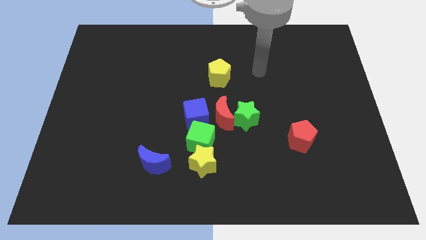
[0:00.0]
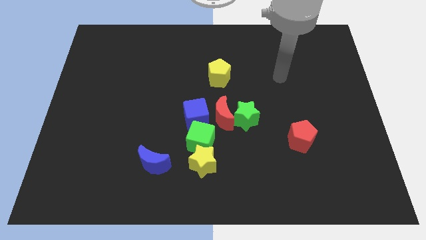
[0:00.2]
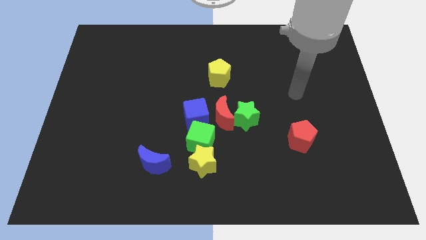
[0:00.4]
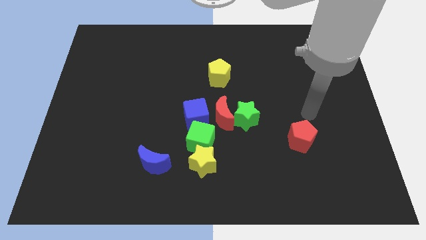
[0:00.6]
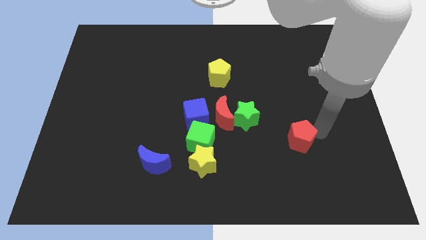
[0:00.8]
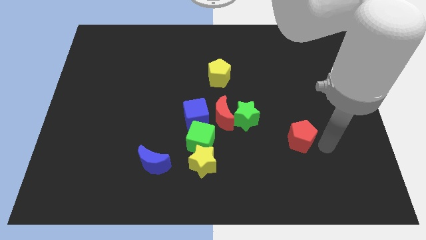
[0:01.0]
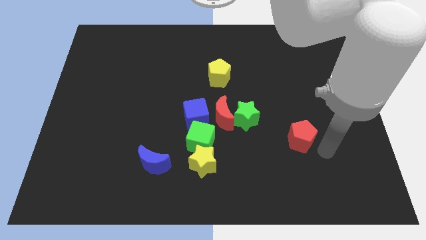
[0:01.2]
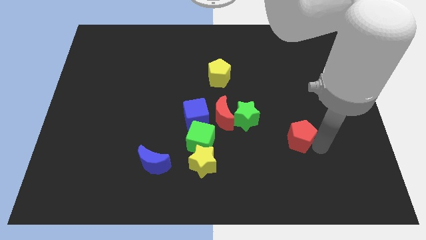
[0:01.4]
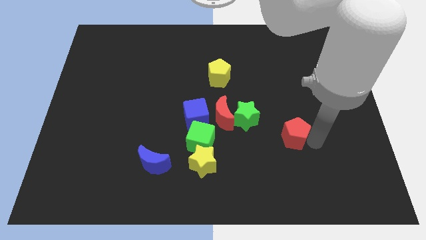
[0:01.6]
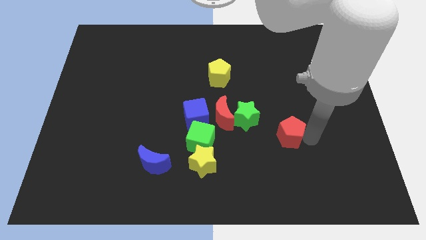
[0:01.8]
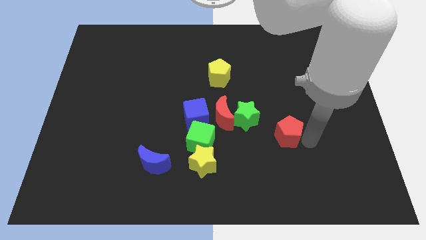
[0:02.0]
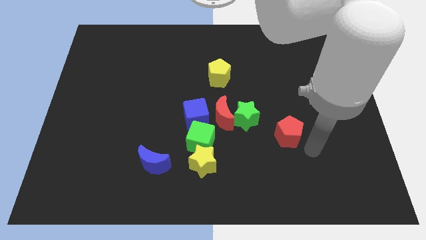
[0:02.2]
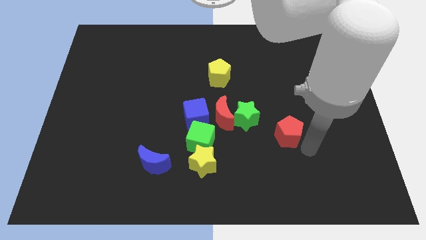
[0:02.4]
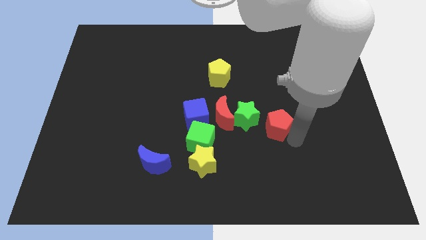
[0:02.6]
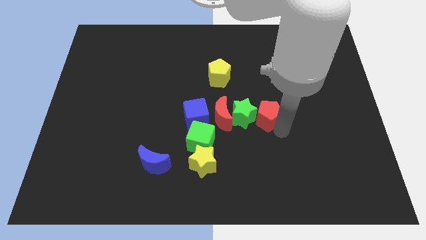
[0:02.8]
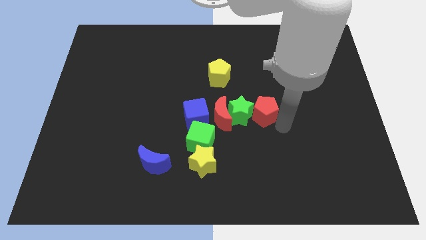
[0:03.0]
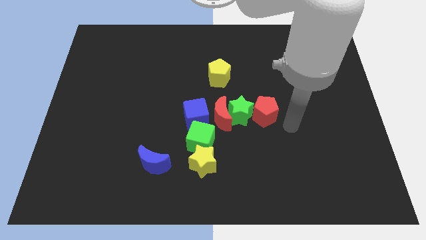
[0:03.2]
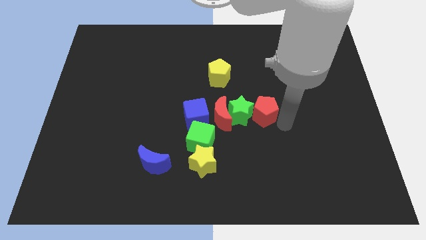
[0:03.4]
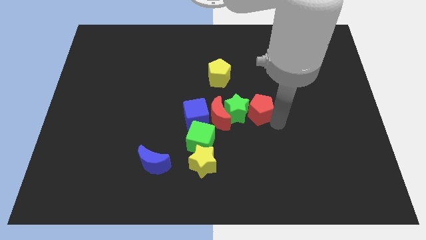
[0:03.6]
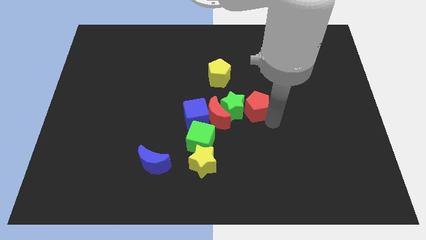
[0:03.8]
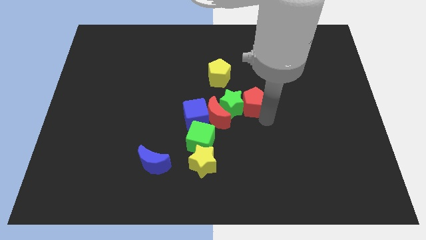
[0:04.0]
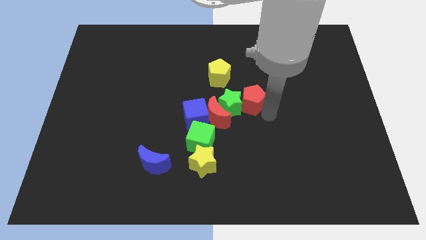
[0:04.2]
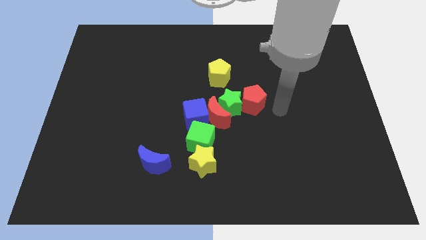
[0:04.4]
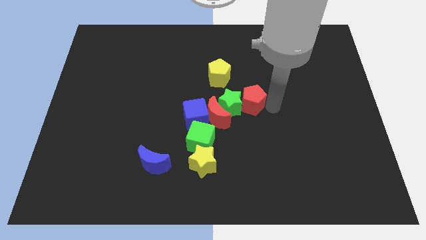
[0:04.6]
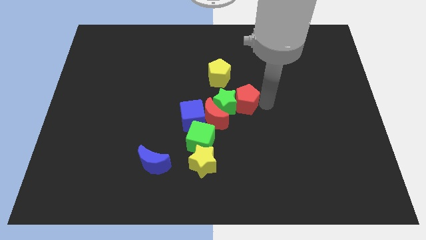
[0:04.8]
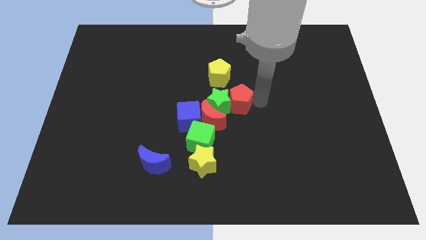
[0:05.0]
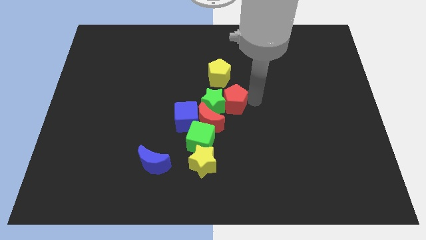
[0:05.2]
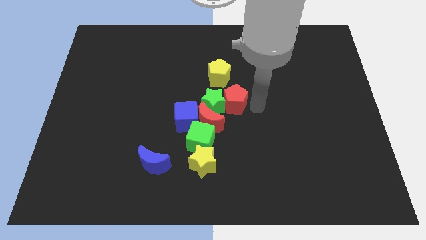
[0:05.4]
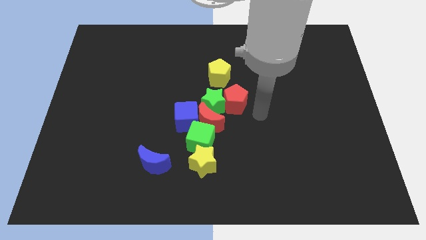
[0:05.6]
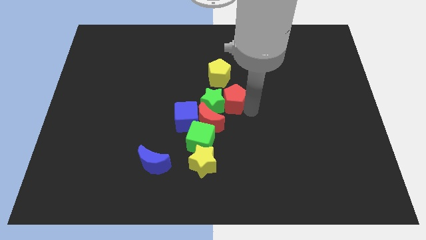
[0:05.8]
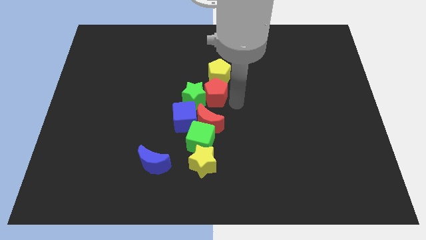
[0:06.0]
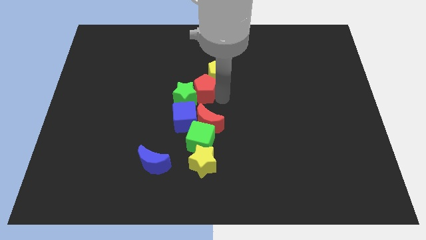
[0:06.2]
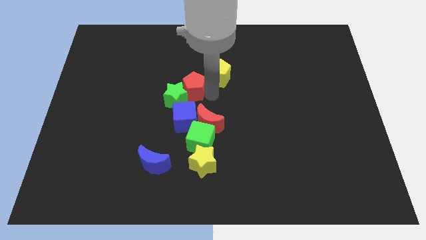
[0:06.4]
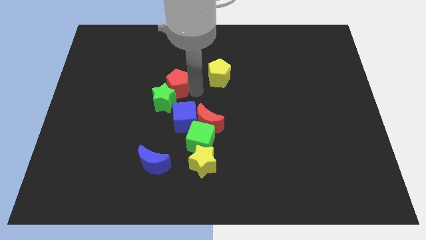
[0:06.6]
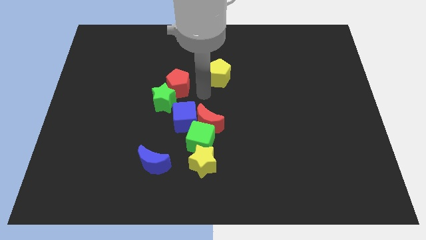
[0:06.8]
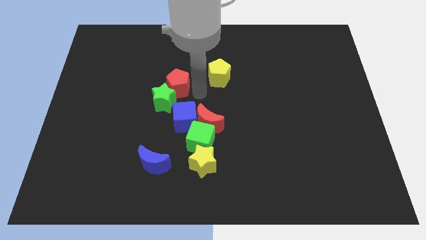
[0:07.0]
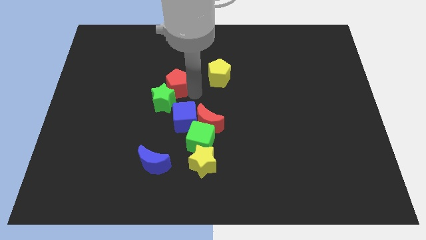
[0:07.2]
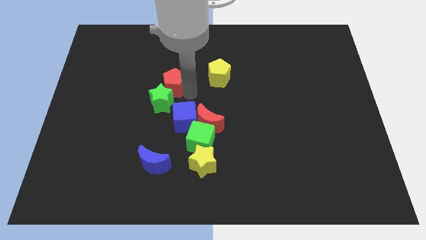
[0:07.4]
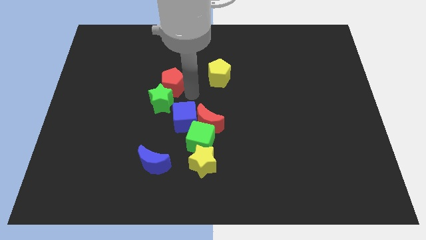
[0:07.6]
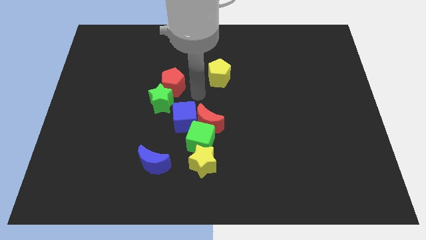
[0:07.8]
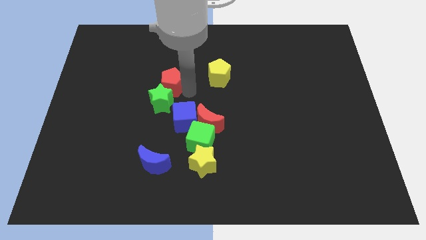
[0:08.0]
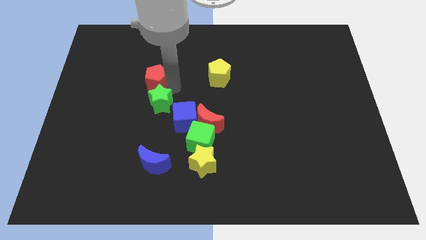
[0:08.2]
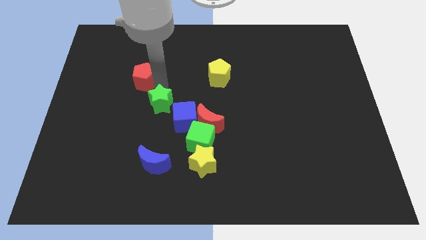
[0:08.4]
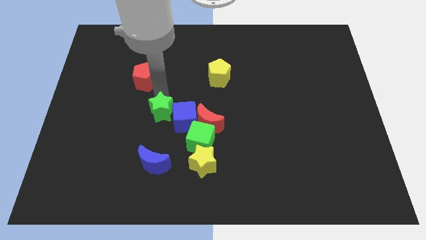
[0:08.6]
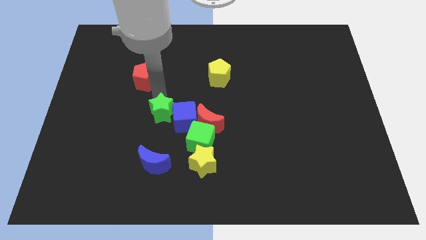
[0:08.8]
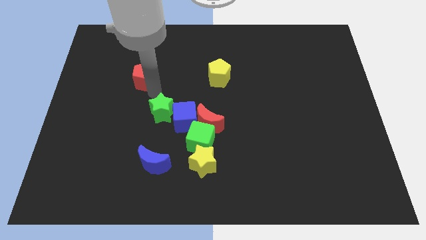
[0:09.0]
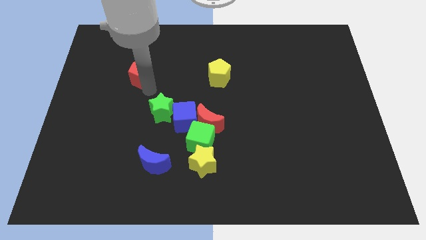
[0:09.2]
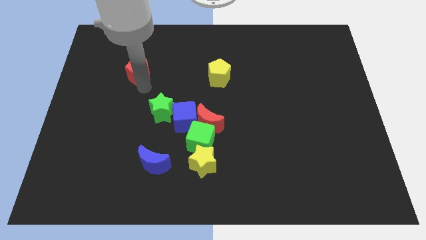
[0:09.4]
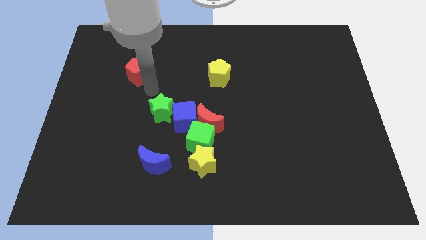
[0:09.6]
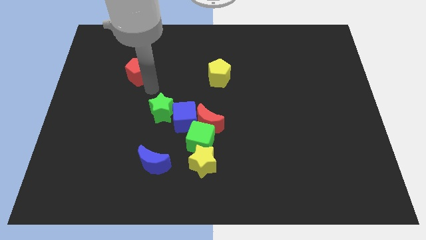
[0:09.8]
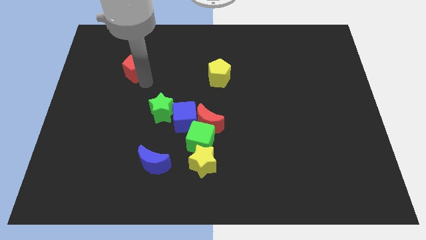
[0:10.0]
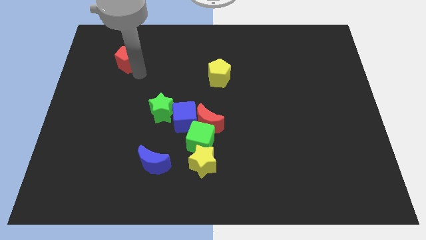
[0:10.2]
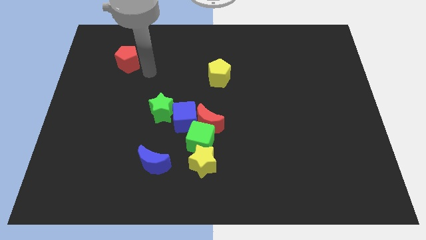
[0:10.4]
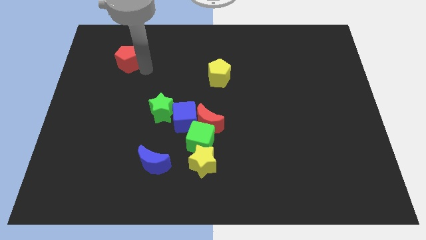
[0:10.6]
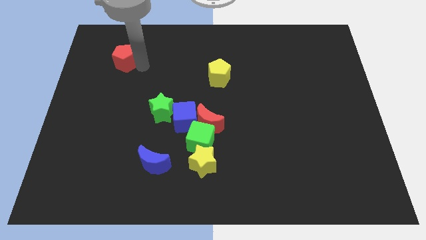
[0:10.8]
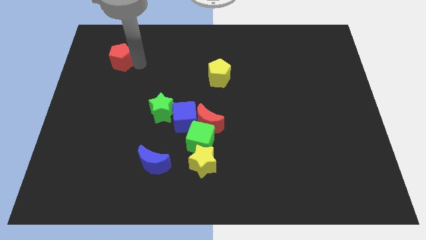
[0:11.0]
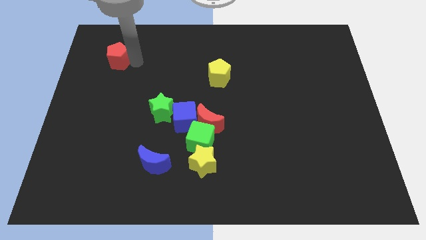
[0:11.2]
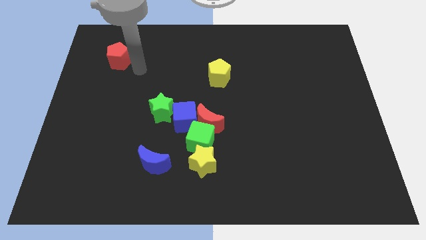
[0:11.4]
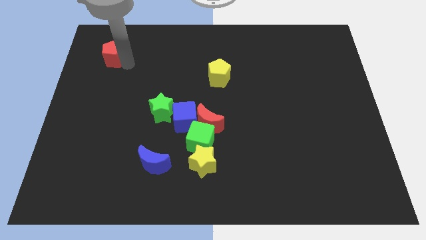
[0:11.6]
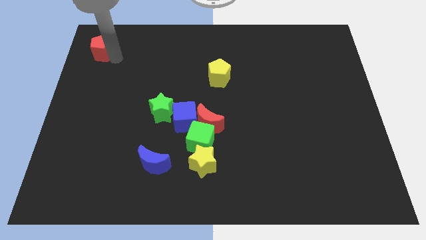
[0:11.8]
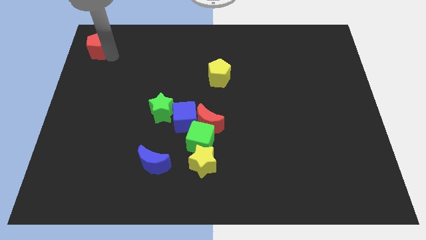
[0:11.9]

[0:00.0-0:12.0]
put the red pentagon to the top left
